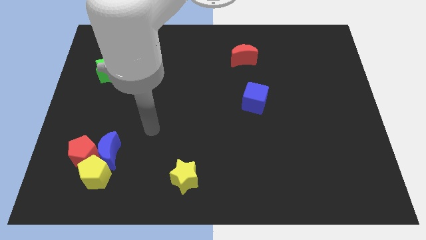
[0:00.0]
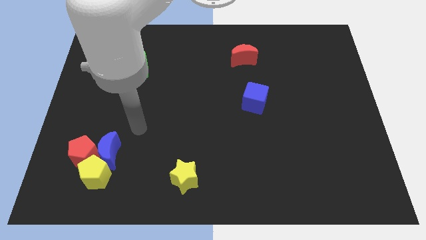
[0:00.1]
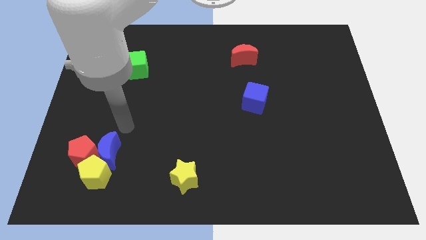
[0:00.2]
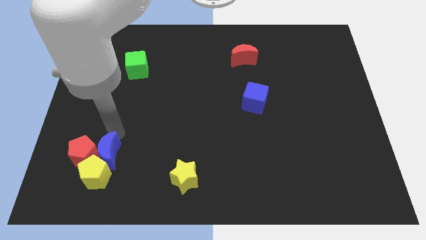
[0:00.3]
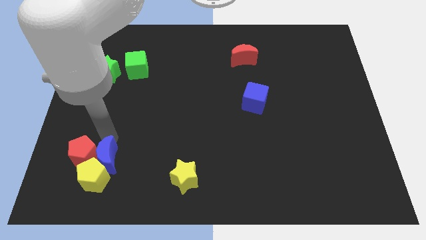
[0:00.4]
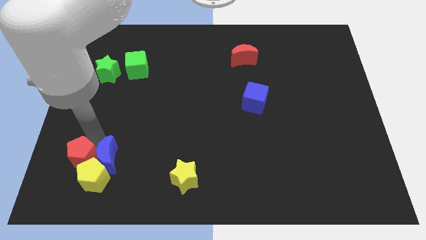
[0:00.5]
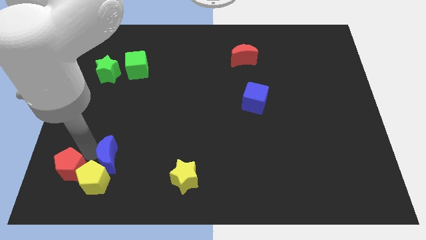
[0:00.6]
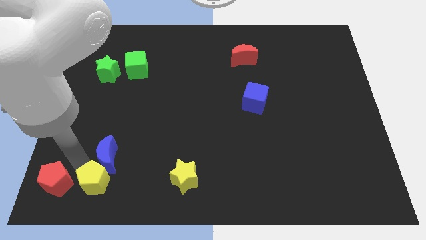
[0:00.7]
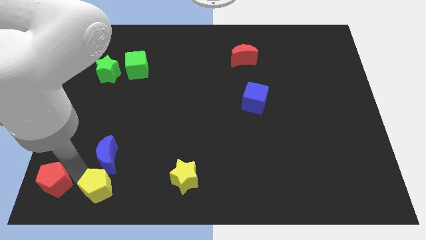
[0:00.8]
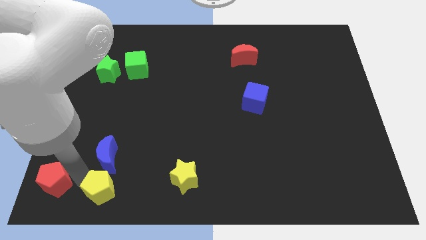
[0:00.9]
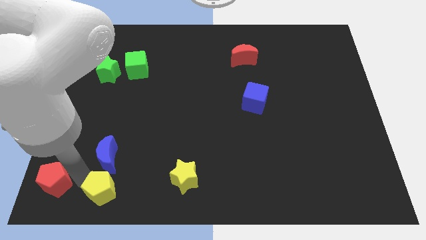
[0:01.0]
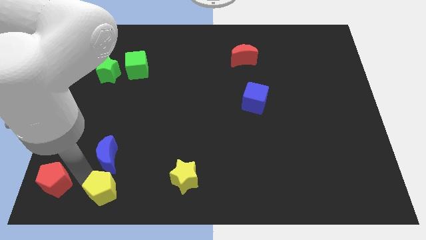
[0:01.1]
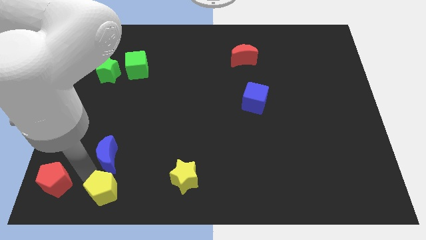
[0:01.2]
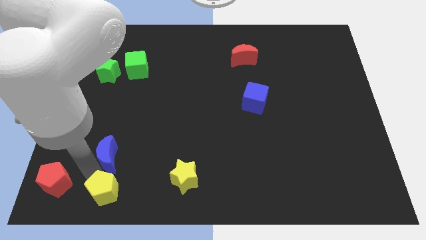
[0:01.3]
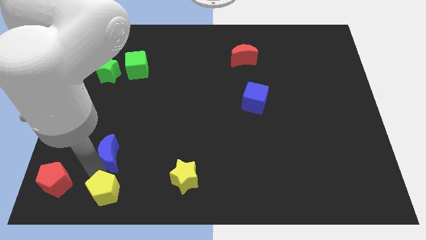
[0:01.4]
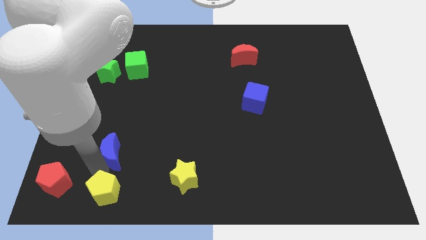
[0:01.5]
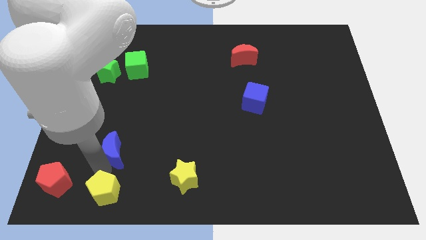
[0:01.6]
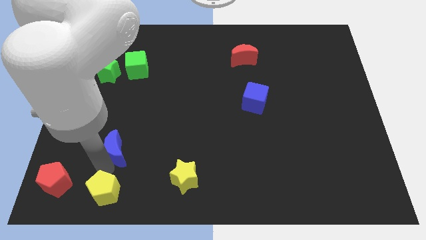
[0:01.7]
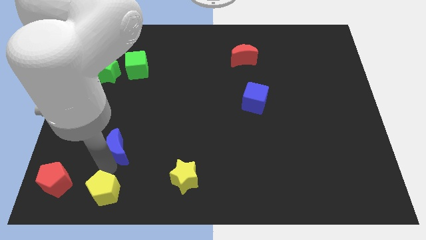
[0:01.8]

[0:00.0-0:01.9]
move the blue moon away from the red pentagon and yellow pentagon

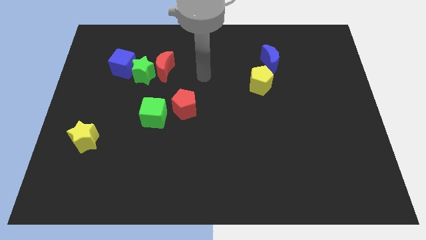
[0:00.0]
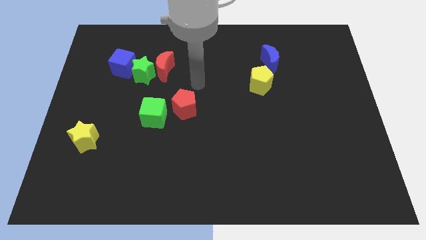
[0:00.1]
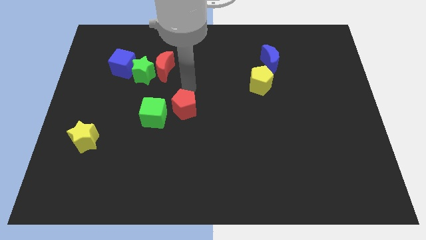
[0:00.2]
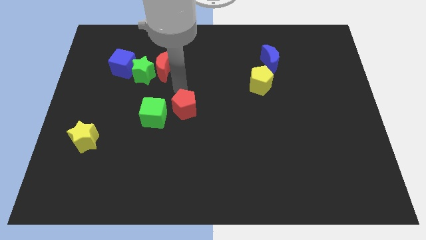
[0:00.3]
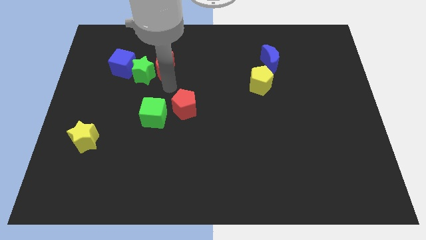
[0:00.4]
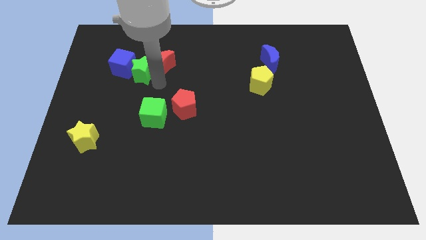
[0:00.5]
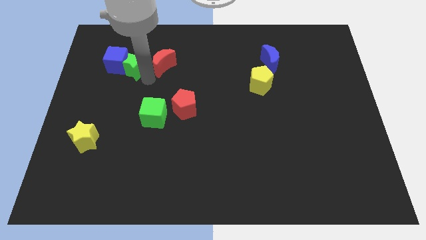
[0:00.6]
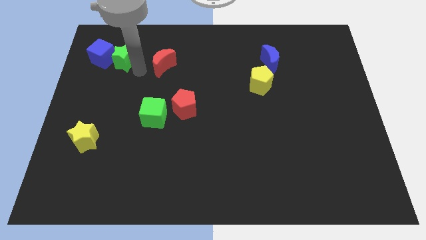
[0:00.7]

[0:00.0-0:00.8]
pull the red moon apart from the green star

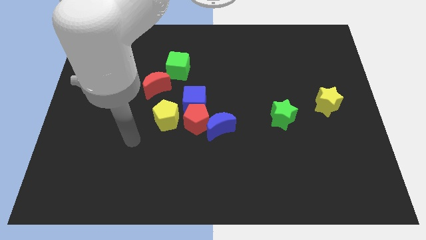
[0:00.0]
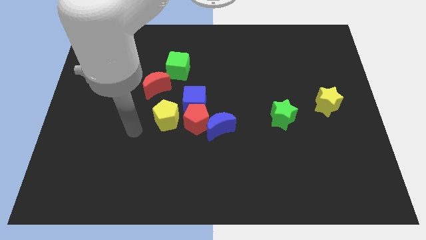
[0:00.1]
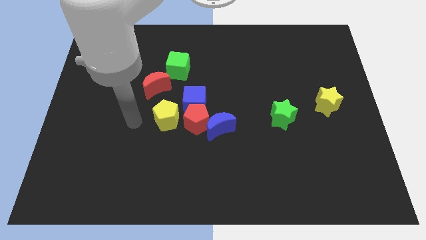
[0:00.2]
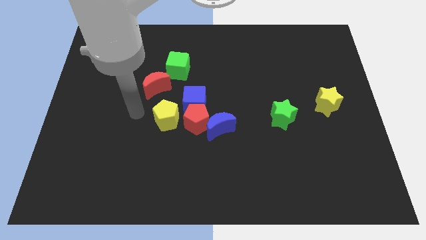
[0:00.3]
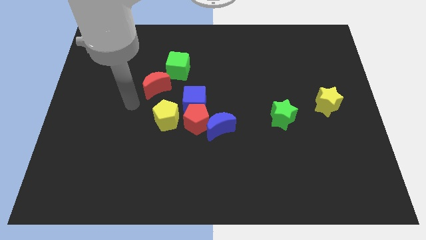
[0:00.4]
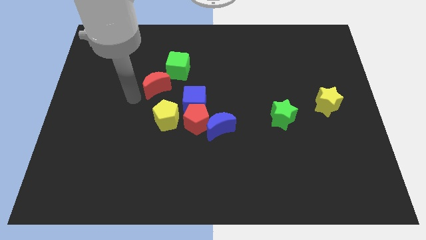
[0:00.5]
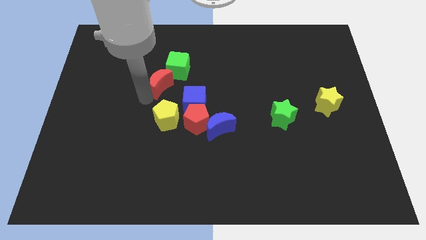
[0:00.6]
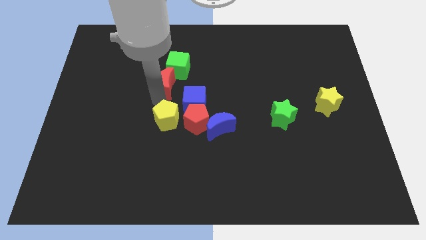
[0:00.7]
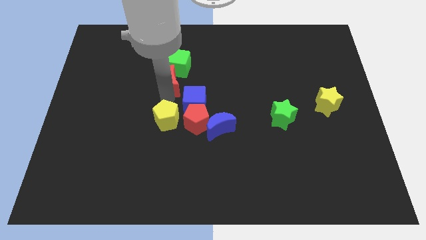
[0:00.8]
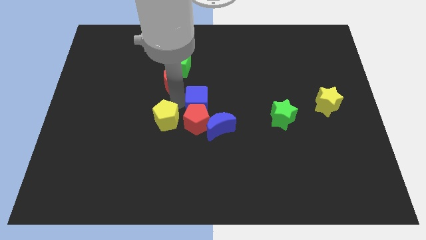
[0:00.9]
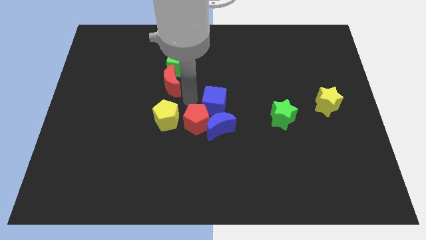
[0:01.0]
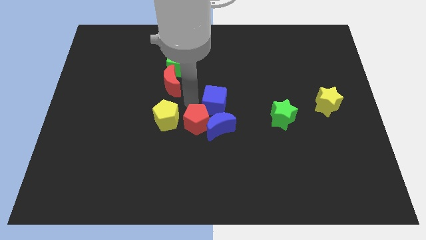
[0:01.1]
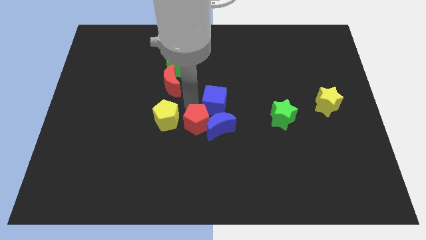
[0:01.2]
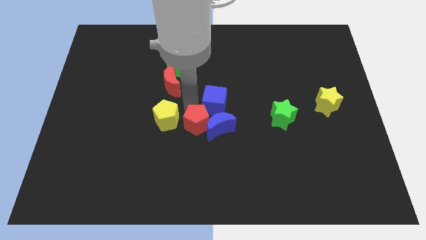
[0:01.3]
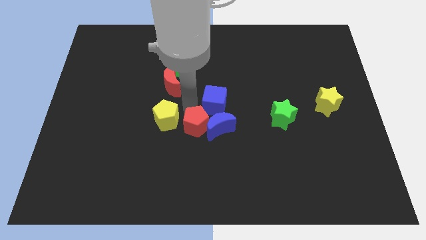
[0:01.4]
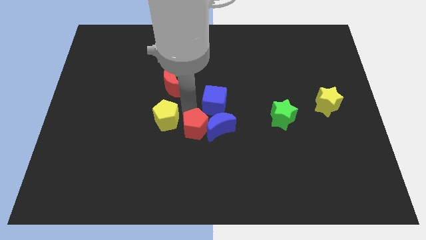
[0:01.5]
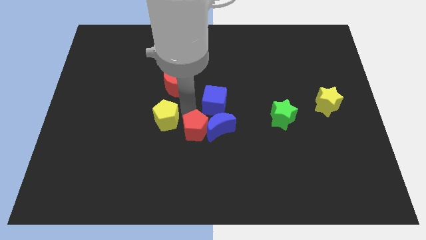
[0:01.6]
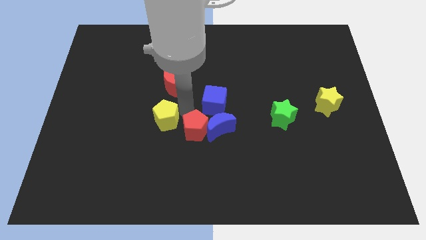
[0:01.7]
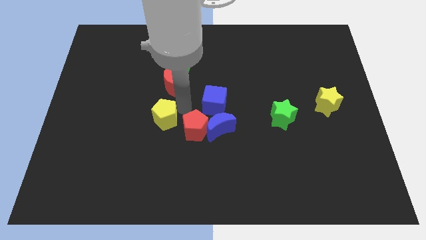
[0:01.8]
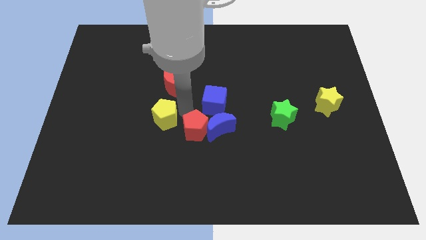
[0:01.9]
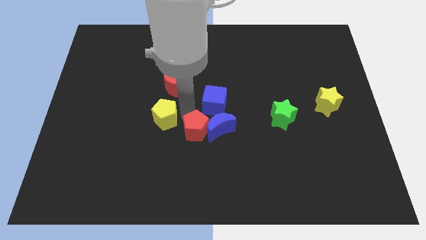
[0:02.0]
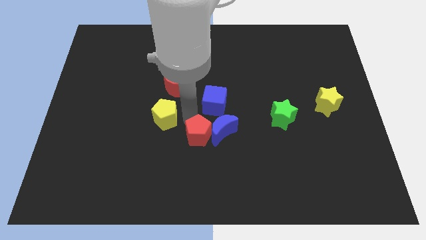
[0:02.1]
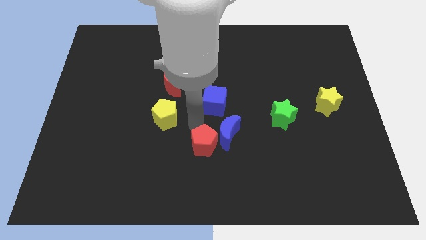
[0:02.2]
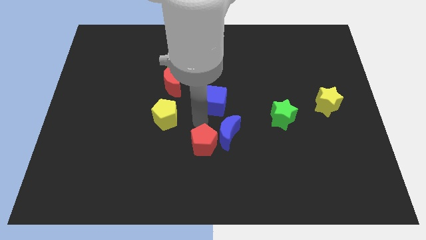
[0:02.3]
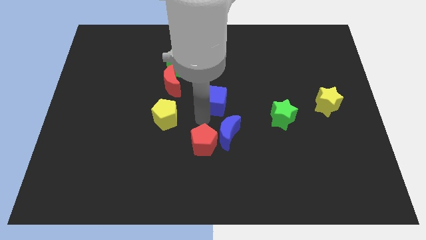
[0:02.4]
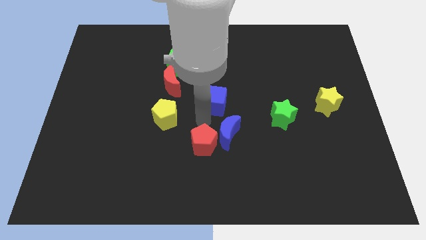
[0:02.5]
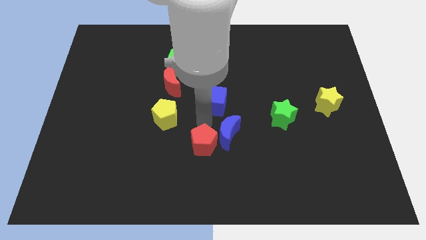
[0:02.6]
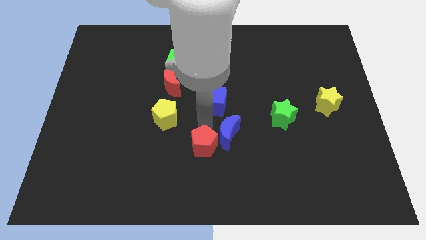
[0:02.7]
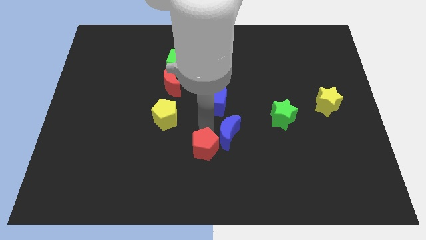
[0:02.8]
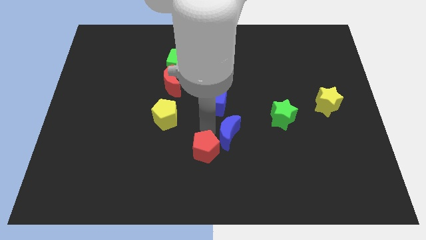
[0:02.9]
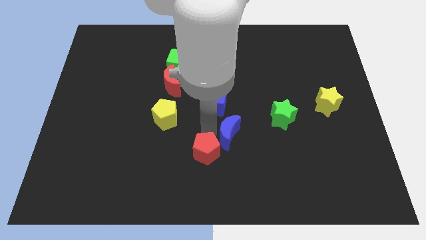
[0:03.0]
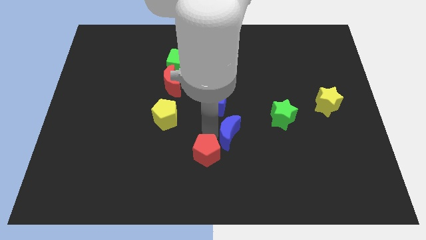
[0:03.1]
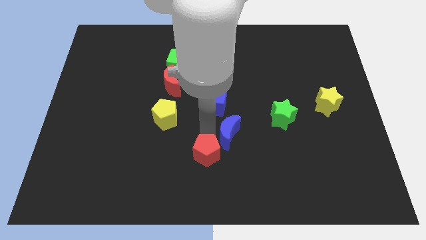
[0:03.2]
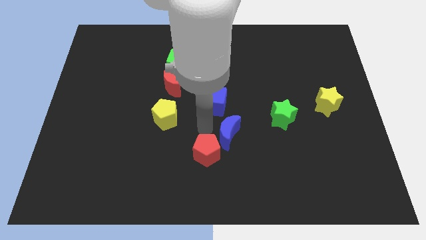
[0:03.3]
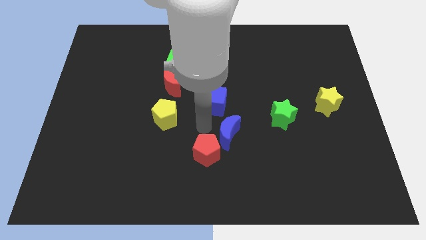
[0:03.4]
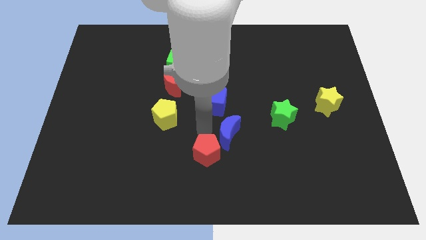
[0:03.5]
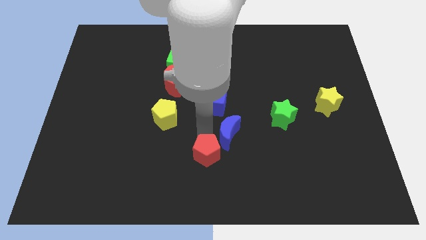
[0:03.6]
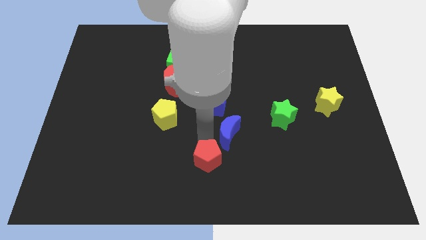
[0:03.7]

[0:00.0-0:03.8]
separate the red pentagon from the clump

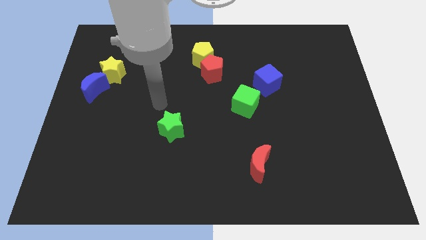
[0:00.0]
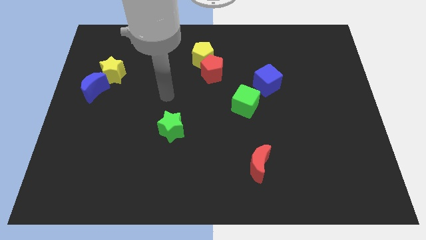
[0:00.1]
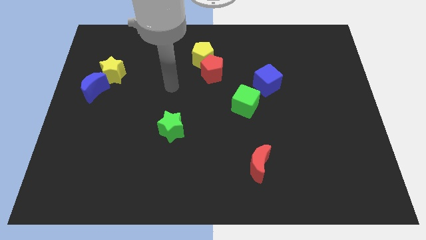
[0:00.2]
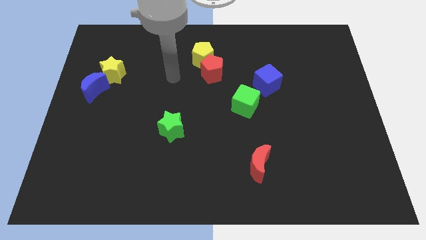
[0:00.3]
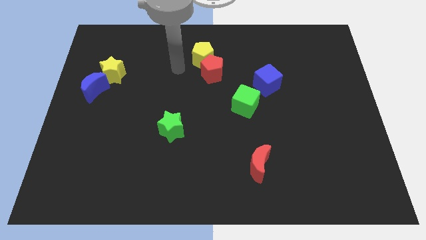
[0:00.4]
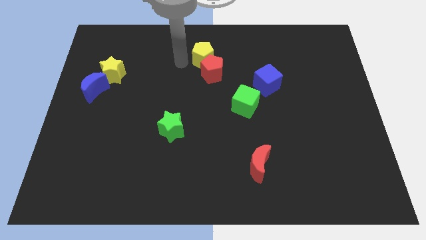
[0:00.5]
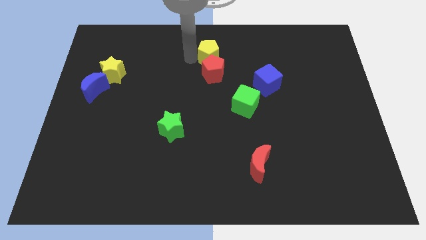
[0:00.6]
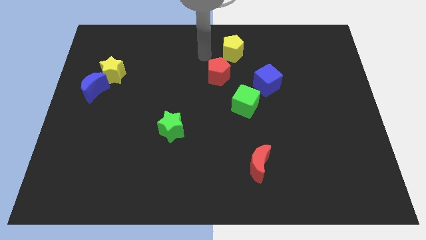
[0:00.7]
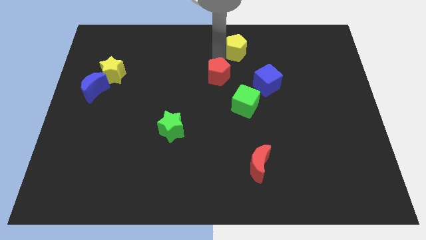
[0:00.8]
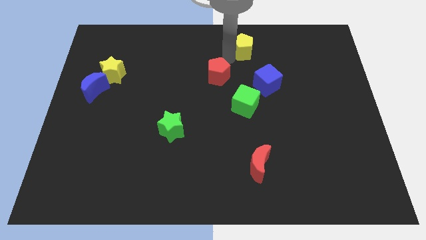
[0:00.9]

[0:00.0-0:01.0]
pull the red pentagon apart from the yellow pentagon

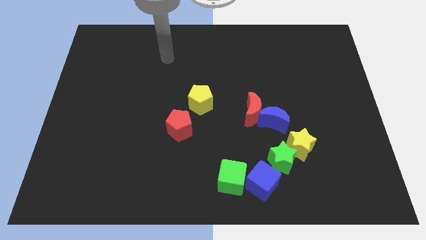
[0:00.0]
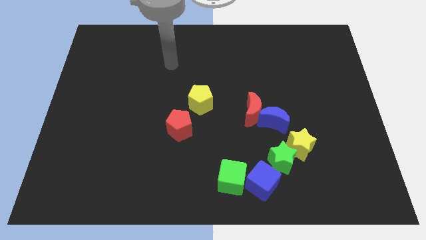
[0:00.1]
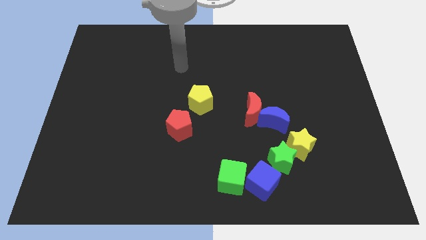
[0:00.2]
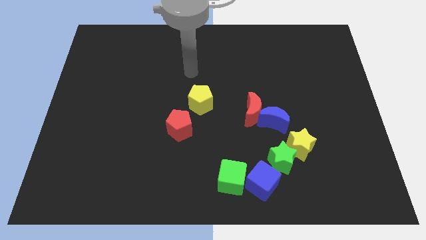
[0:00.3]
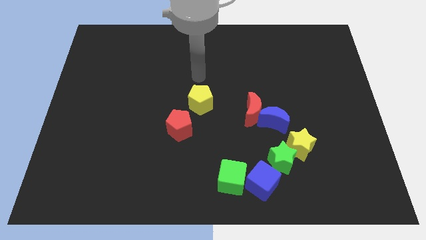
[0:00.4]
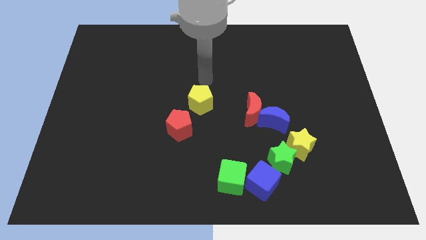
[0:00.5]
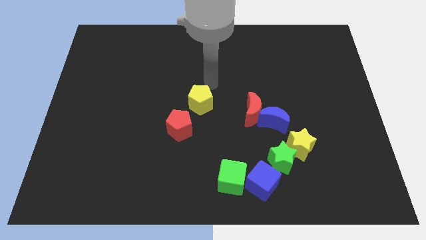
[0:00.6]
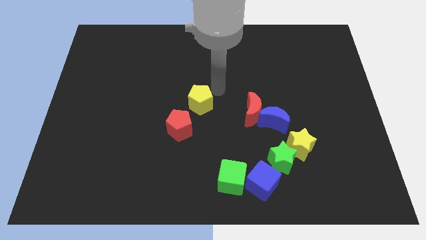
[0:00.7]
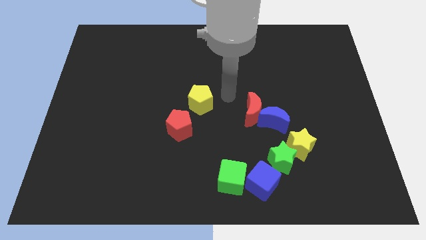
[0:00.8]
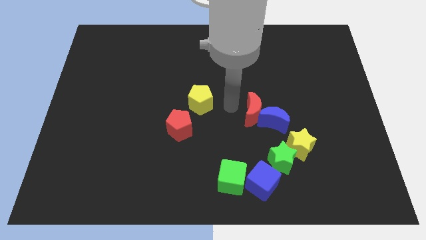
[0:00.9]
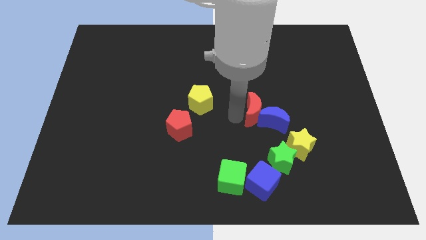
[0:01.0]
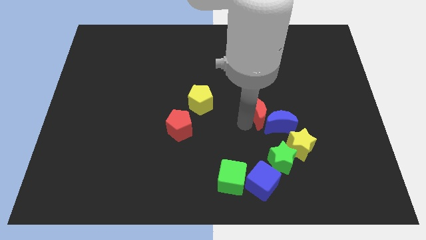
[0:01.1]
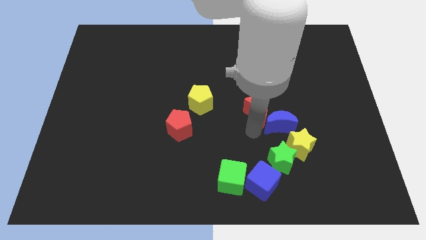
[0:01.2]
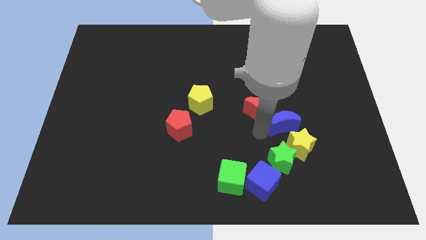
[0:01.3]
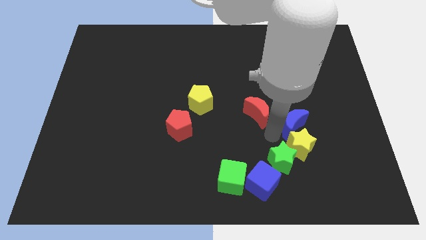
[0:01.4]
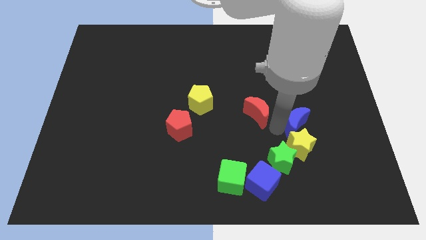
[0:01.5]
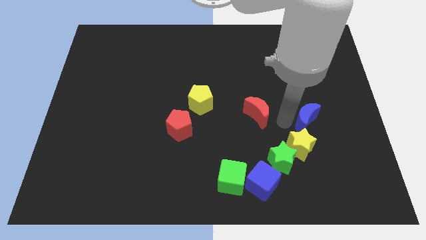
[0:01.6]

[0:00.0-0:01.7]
move the red moon away from the blue moon

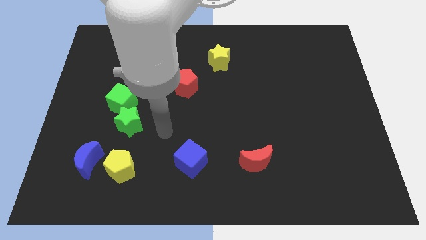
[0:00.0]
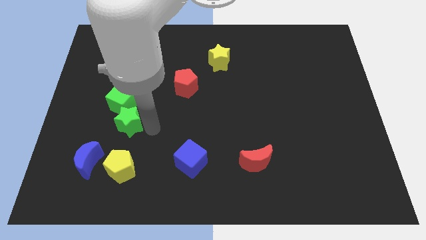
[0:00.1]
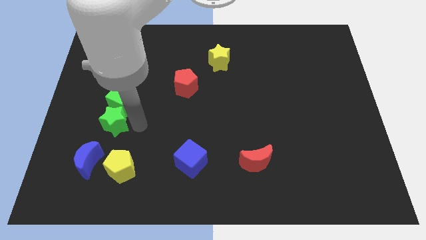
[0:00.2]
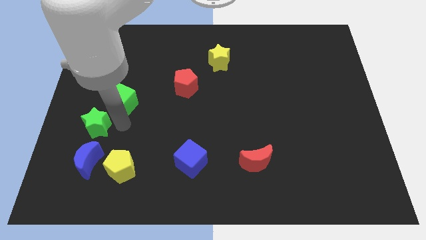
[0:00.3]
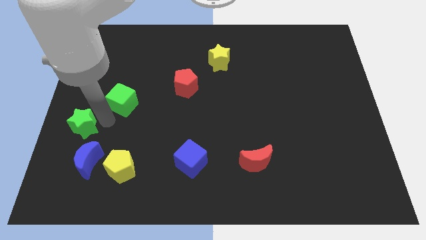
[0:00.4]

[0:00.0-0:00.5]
pull the green cube apart from the green star
